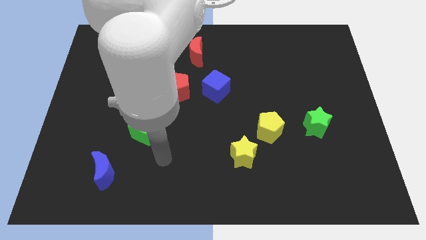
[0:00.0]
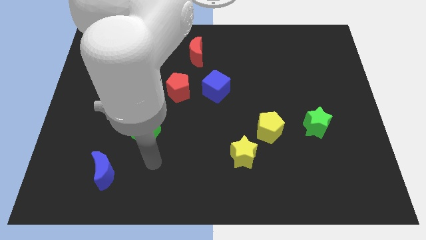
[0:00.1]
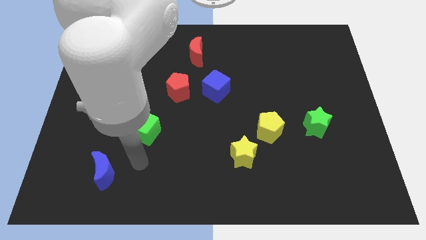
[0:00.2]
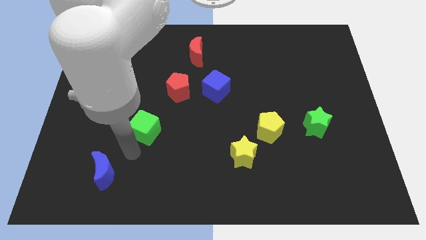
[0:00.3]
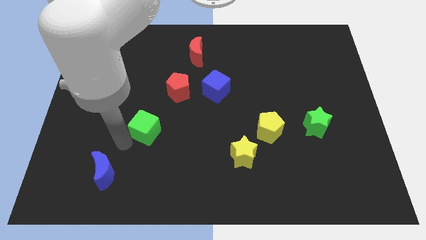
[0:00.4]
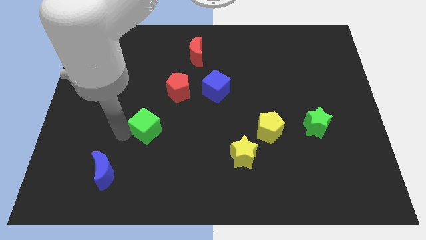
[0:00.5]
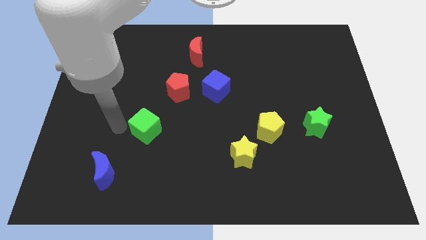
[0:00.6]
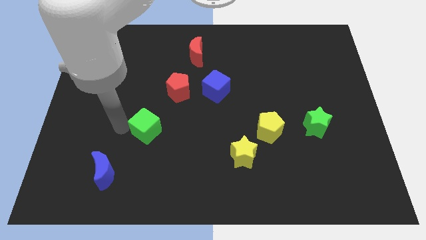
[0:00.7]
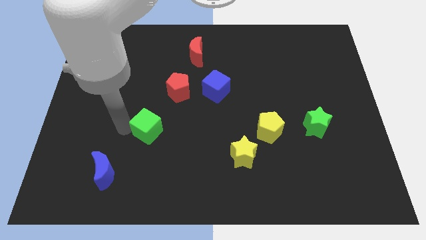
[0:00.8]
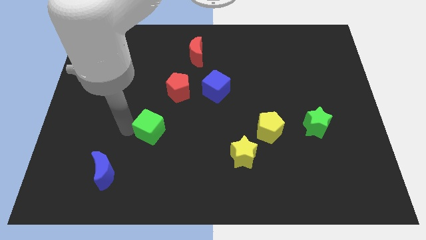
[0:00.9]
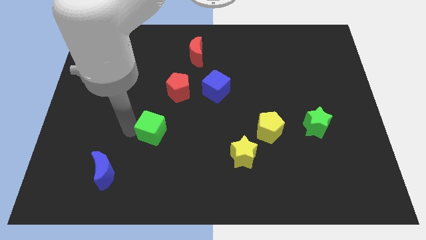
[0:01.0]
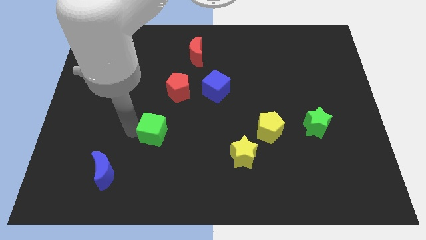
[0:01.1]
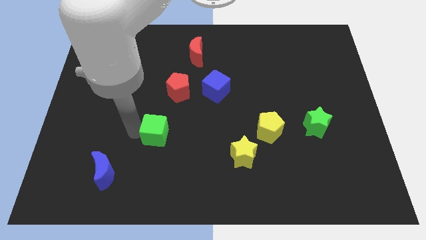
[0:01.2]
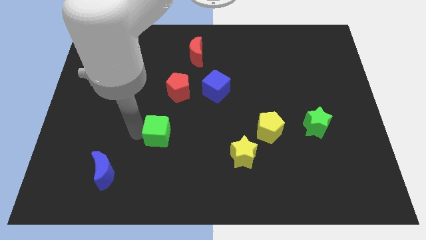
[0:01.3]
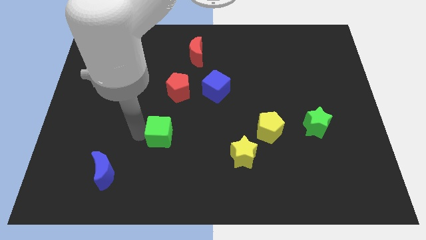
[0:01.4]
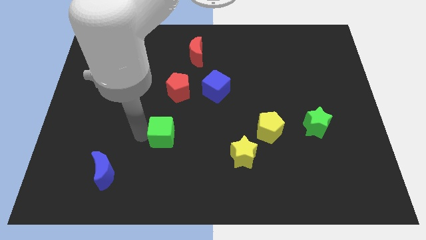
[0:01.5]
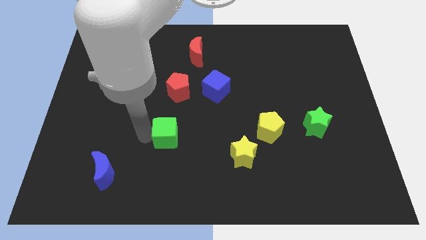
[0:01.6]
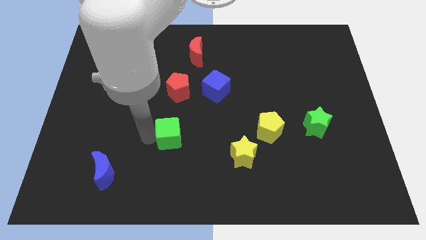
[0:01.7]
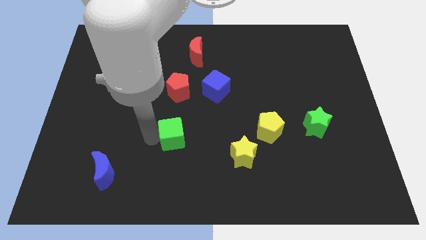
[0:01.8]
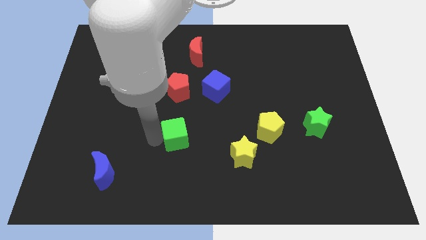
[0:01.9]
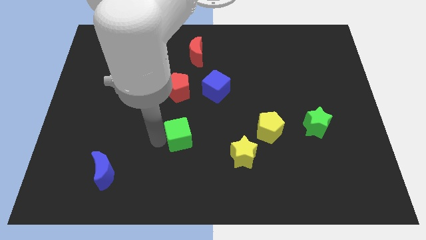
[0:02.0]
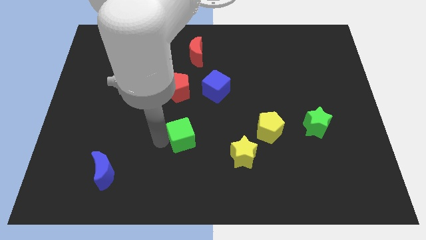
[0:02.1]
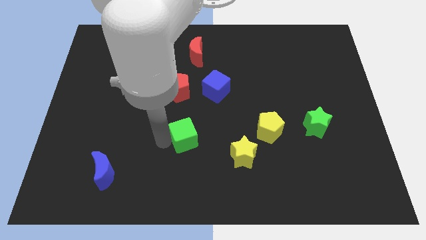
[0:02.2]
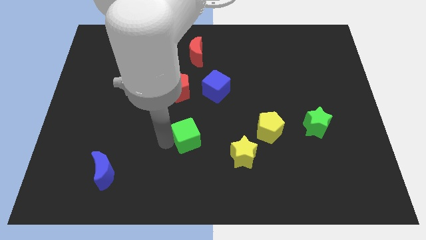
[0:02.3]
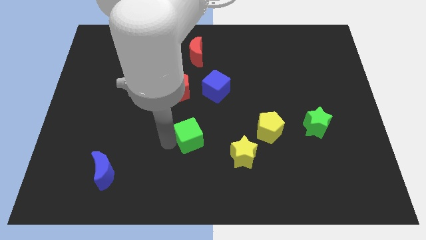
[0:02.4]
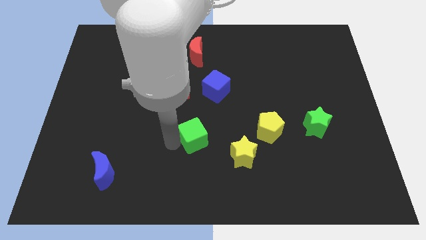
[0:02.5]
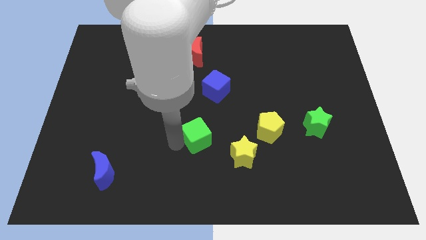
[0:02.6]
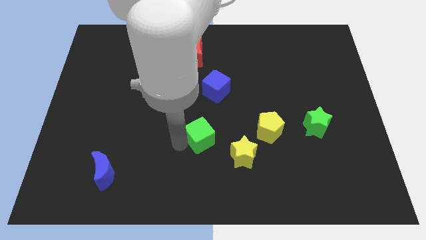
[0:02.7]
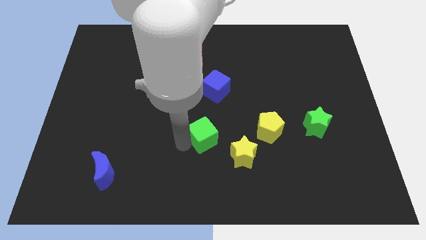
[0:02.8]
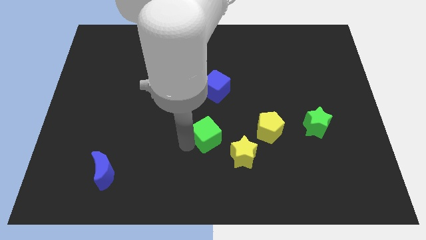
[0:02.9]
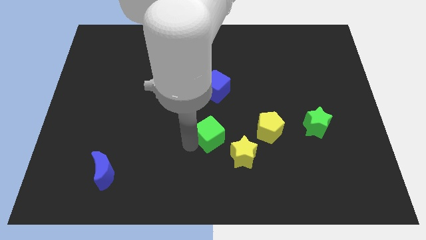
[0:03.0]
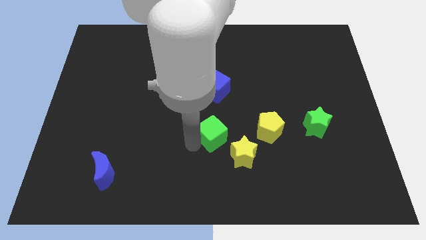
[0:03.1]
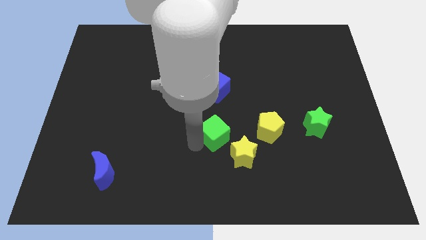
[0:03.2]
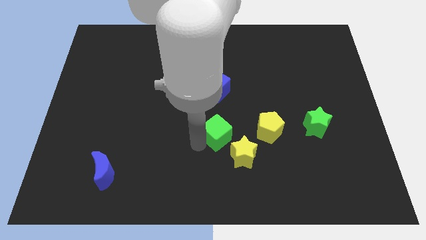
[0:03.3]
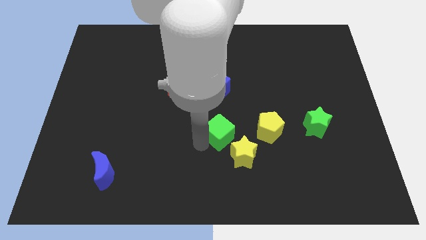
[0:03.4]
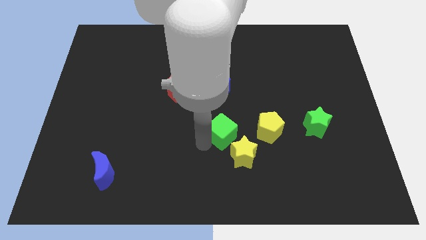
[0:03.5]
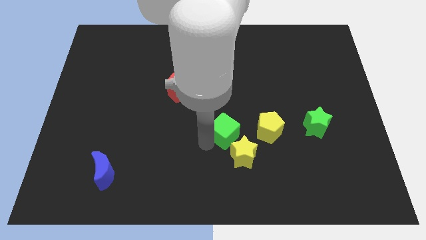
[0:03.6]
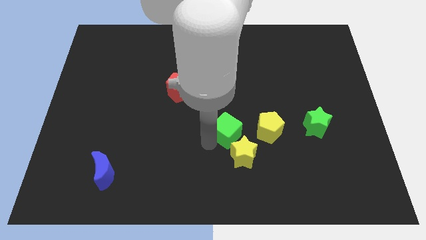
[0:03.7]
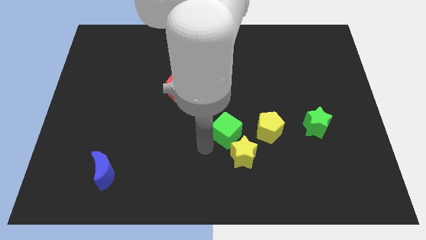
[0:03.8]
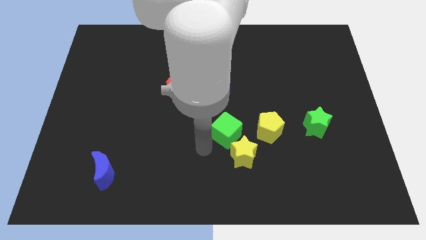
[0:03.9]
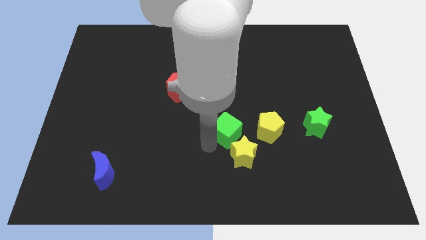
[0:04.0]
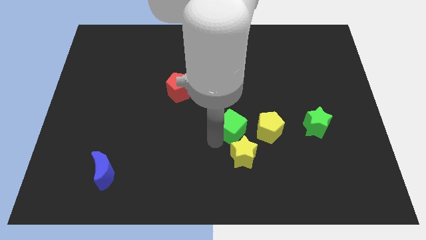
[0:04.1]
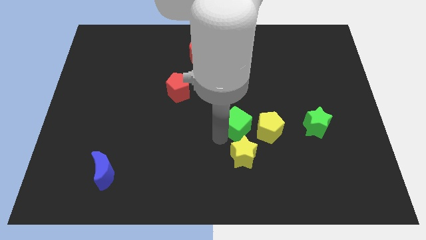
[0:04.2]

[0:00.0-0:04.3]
move the green cube right

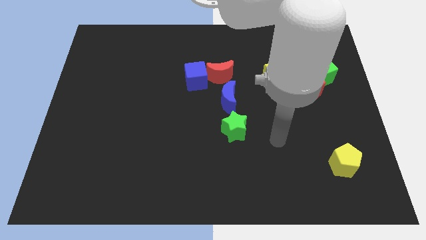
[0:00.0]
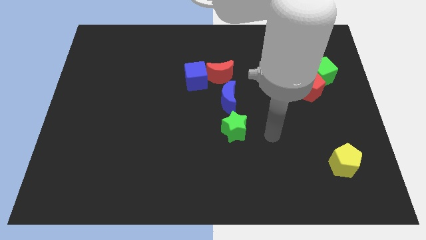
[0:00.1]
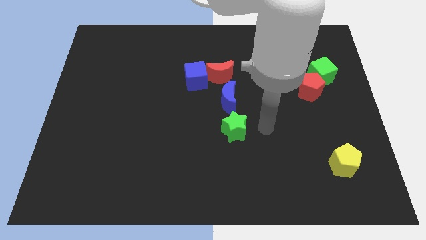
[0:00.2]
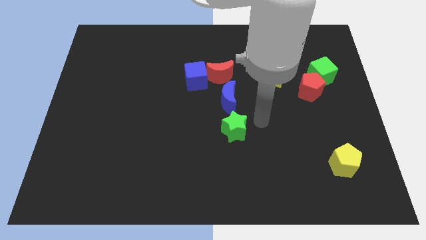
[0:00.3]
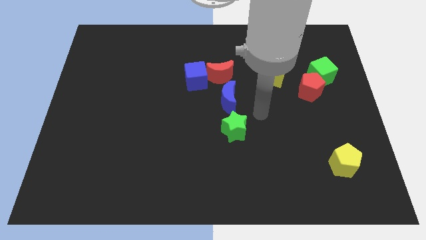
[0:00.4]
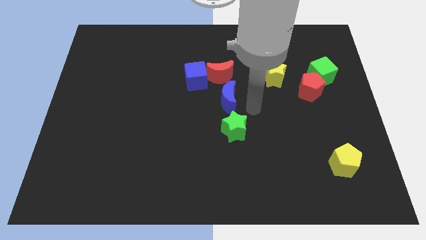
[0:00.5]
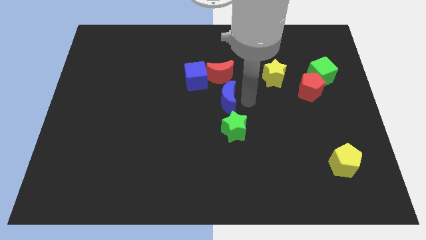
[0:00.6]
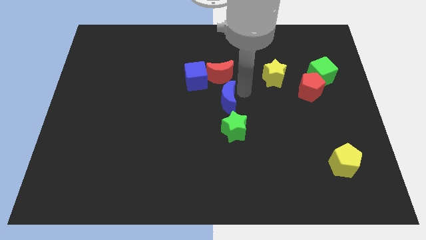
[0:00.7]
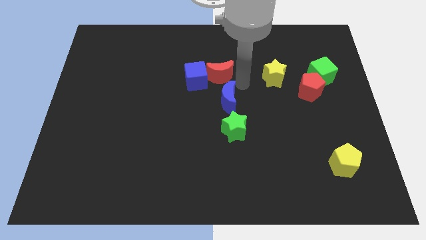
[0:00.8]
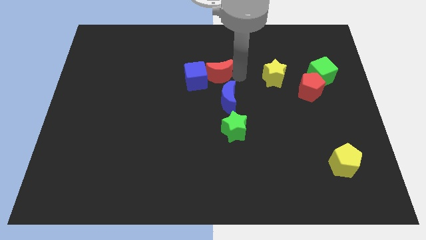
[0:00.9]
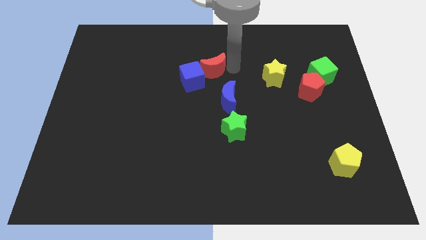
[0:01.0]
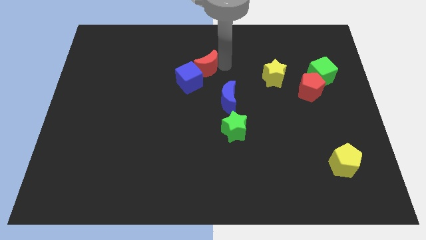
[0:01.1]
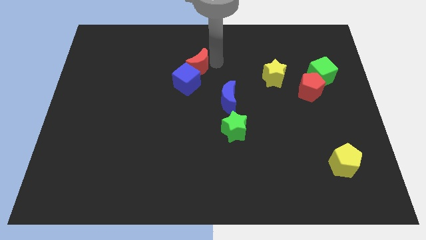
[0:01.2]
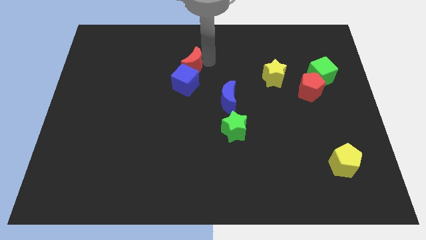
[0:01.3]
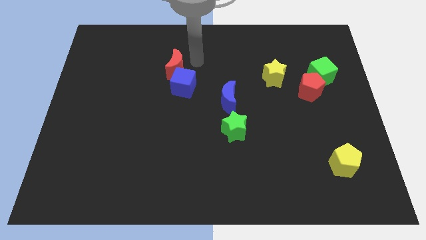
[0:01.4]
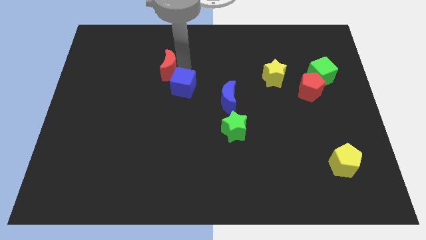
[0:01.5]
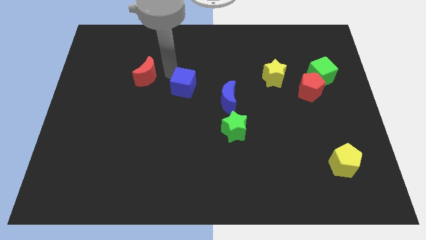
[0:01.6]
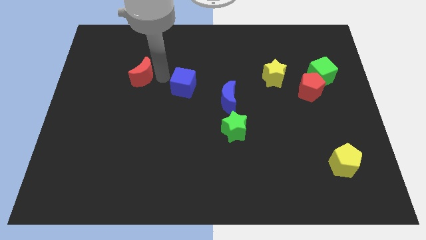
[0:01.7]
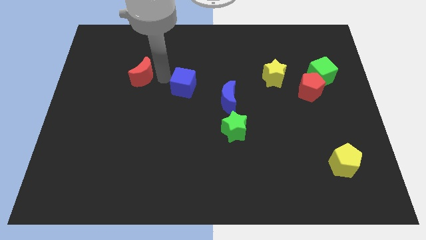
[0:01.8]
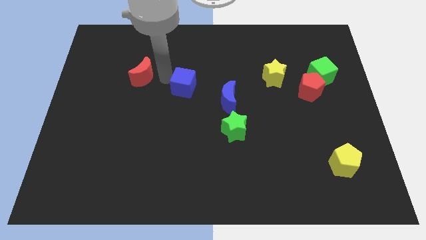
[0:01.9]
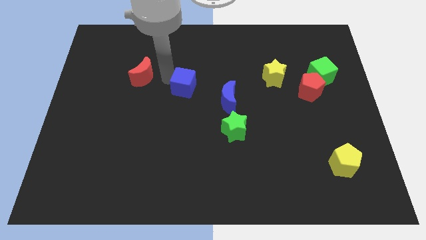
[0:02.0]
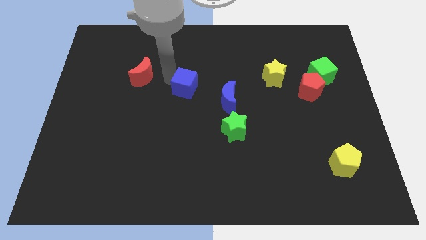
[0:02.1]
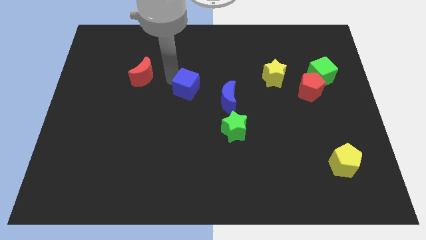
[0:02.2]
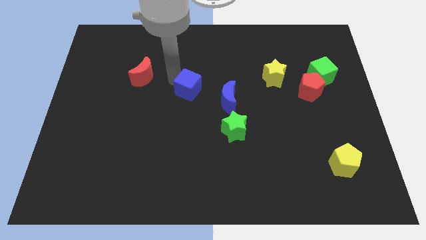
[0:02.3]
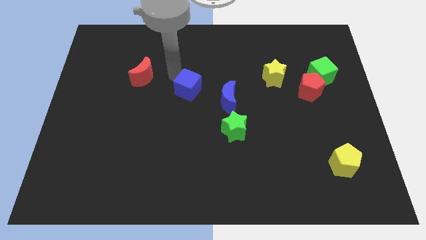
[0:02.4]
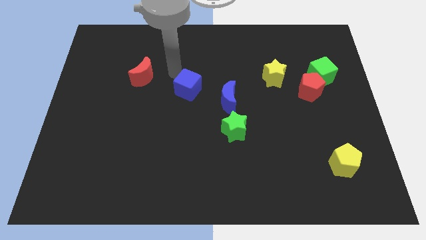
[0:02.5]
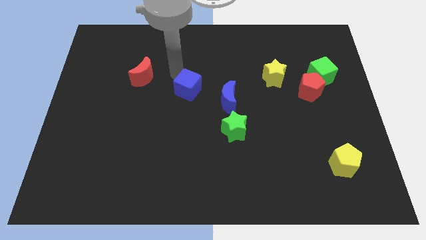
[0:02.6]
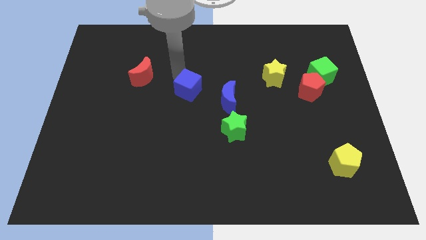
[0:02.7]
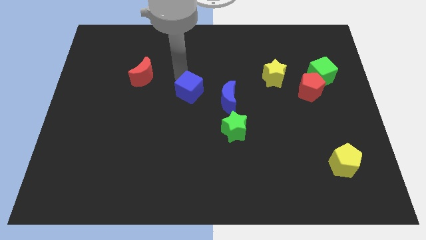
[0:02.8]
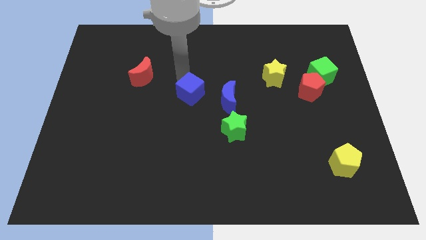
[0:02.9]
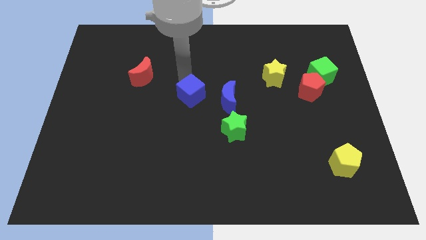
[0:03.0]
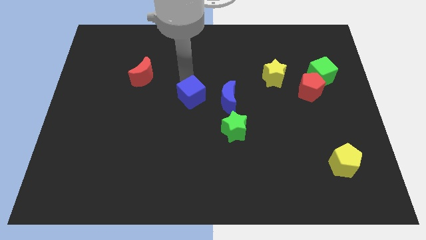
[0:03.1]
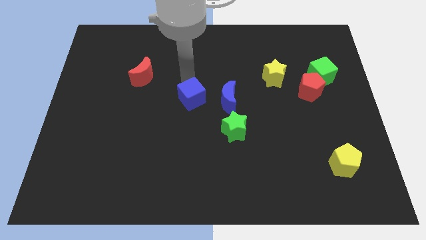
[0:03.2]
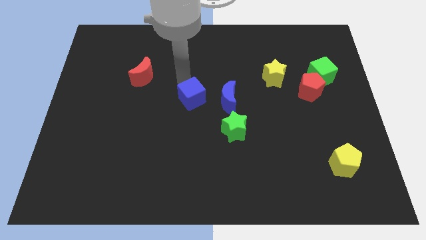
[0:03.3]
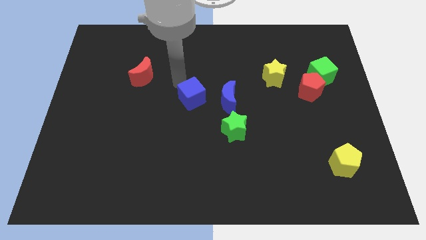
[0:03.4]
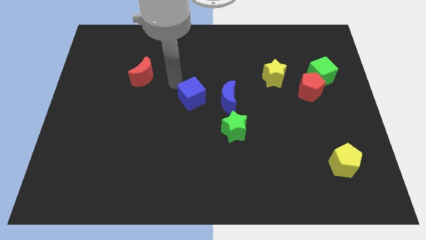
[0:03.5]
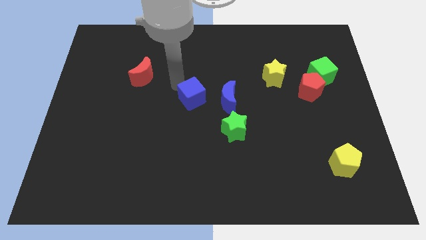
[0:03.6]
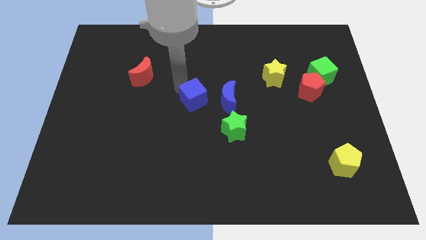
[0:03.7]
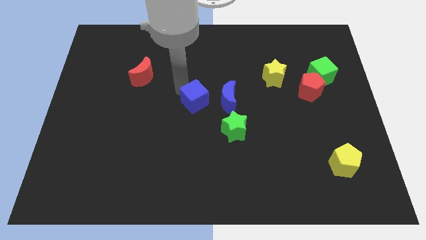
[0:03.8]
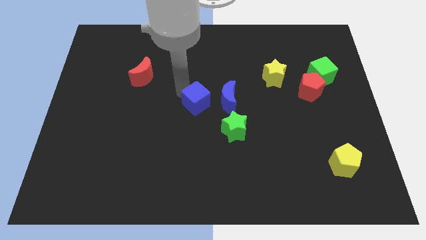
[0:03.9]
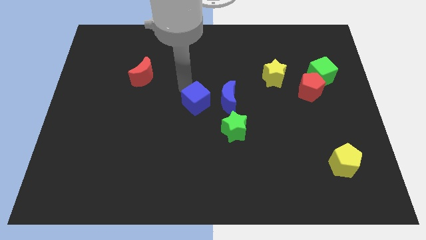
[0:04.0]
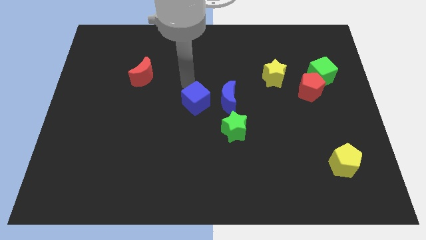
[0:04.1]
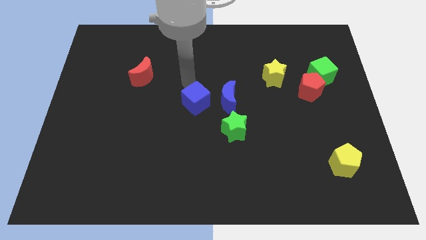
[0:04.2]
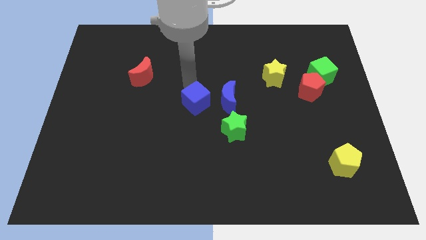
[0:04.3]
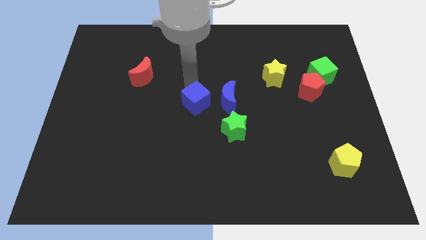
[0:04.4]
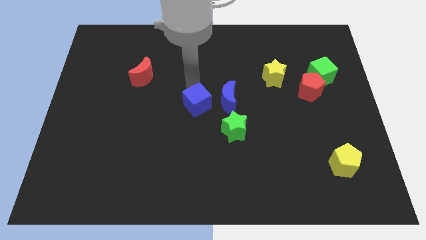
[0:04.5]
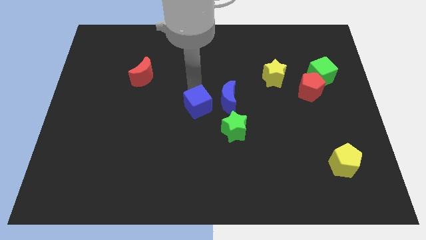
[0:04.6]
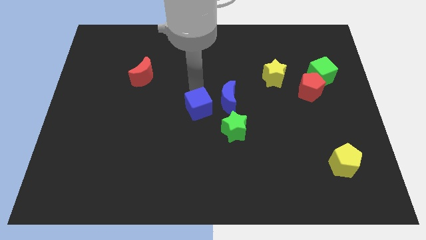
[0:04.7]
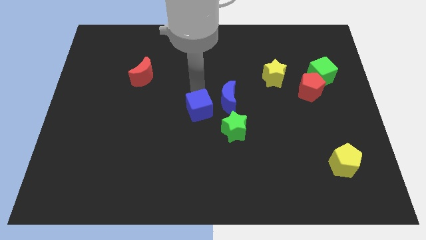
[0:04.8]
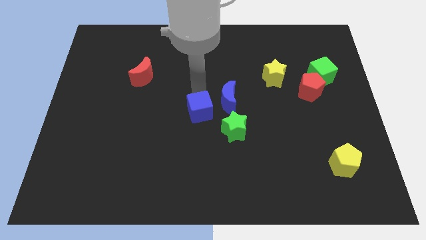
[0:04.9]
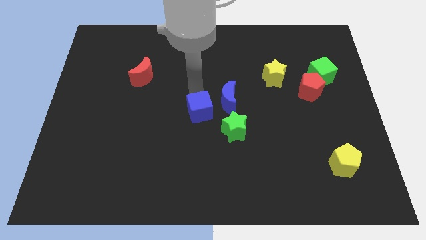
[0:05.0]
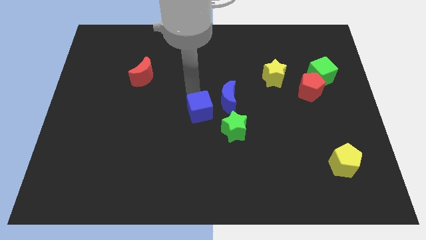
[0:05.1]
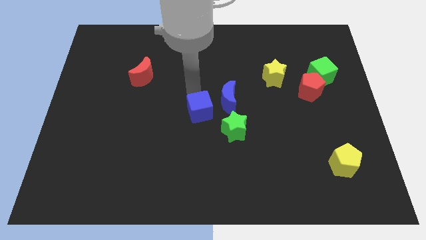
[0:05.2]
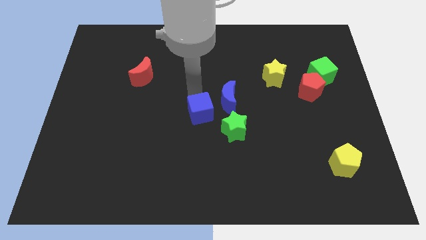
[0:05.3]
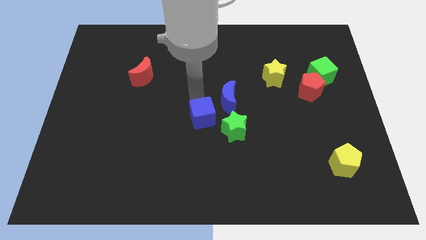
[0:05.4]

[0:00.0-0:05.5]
slightly slide the blue cube down and right diagonally
